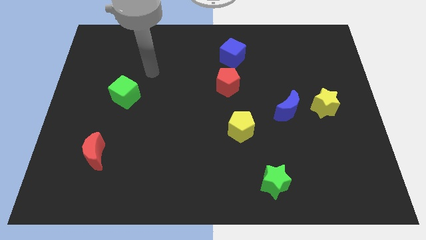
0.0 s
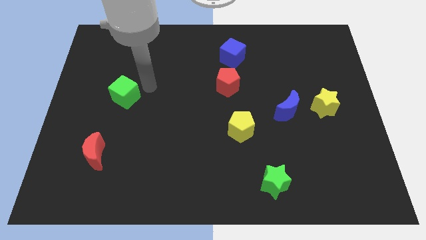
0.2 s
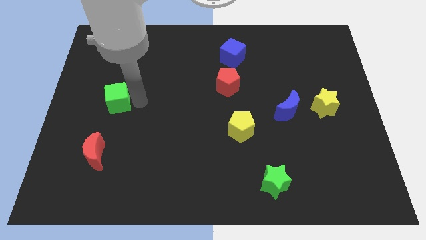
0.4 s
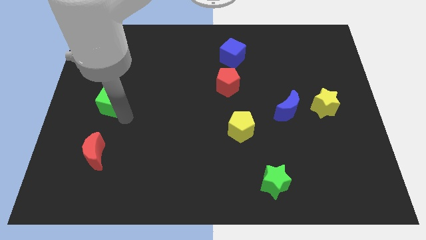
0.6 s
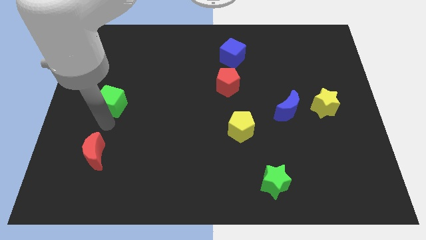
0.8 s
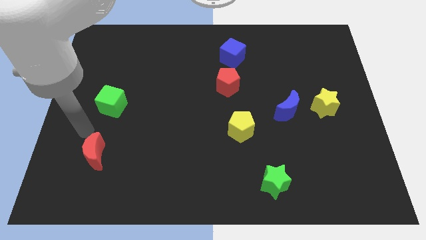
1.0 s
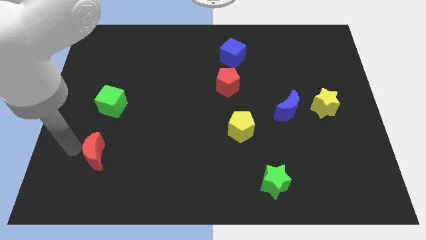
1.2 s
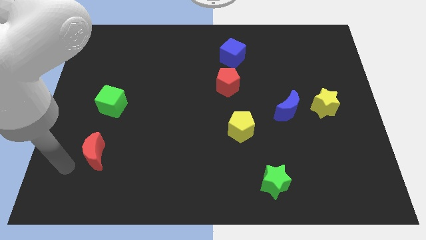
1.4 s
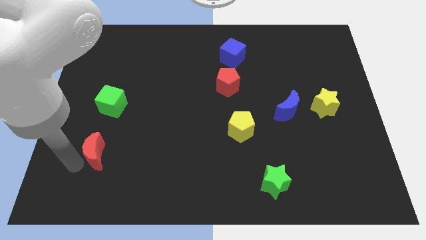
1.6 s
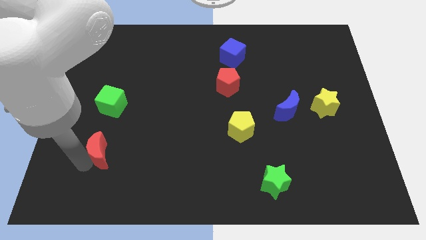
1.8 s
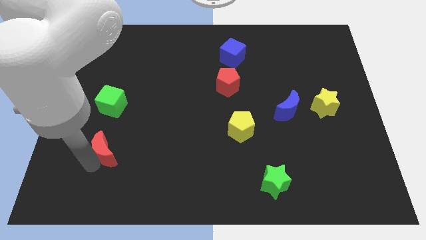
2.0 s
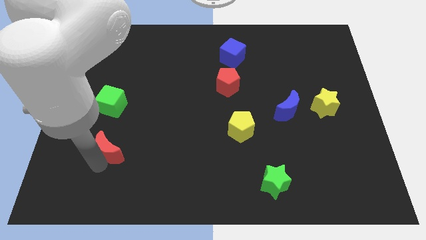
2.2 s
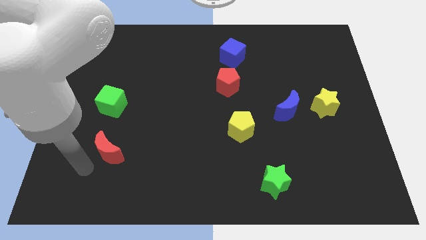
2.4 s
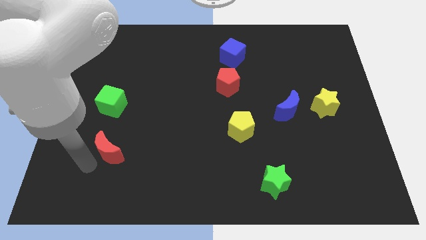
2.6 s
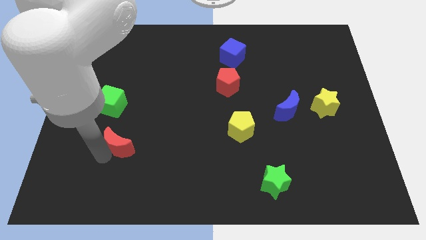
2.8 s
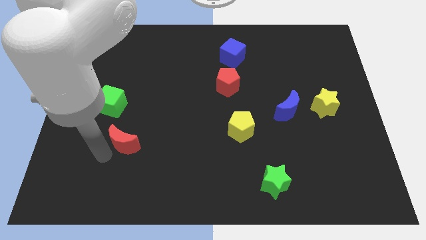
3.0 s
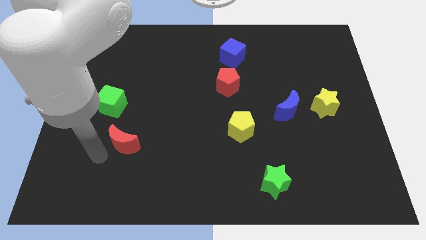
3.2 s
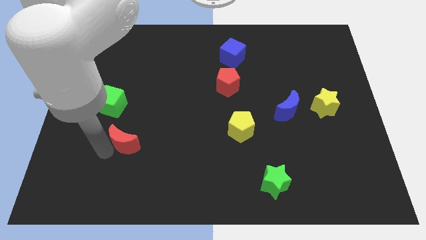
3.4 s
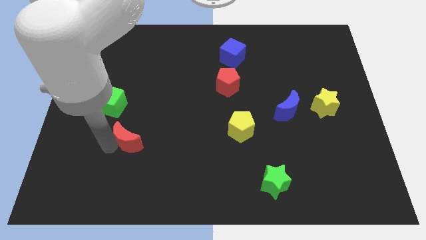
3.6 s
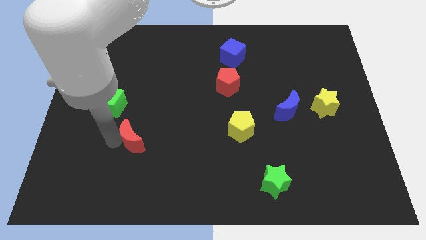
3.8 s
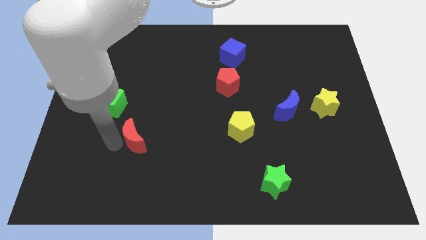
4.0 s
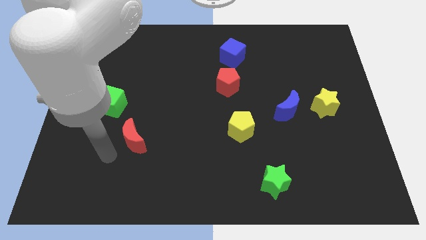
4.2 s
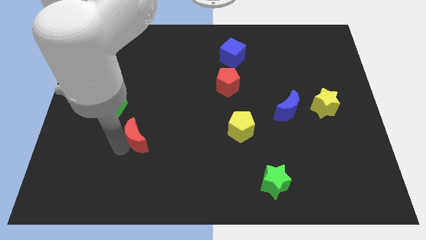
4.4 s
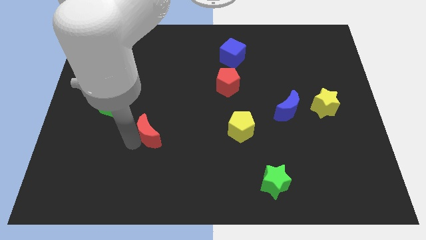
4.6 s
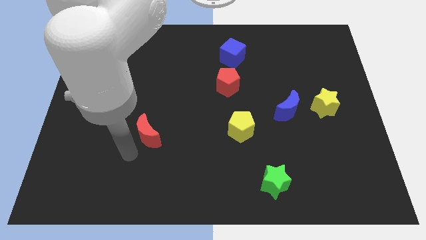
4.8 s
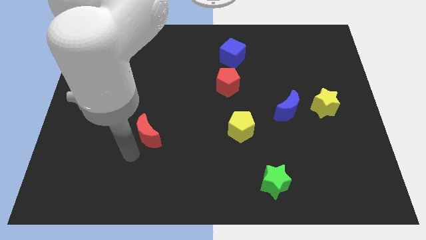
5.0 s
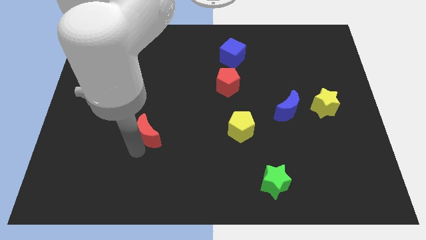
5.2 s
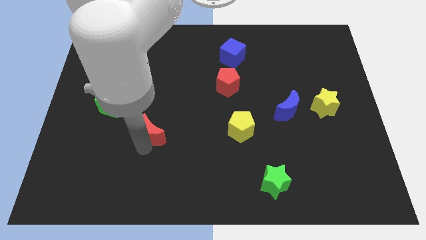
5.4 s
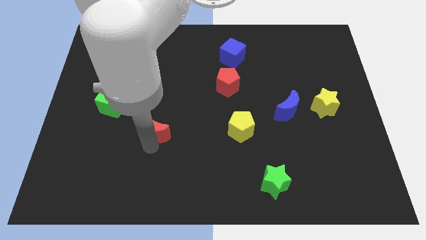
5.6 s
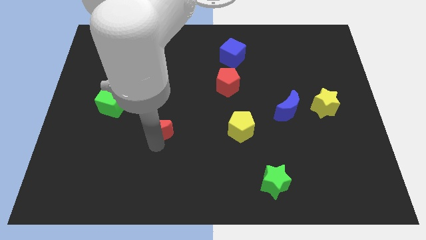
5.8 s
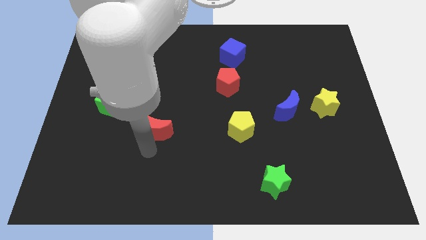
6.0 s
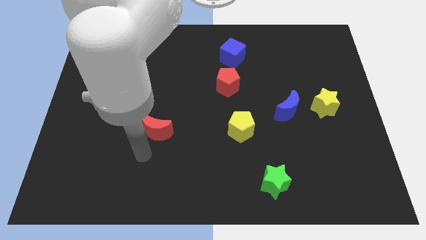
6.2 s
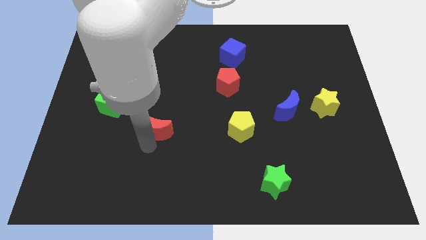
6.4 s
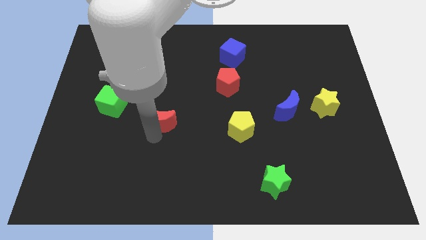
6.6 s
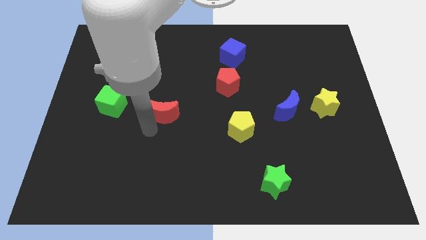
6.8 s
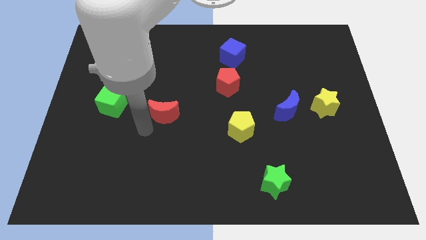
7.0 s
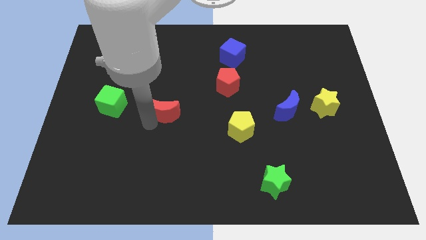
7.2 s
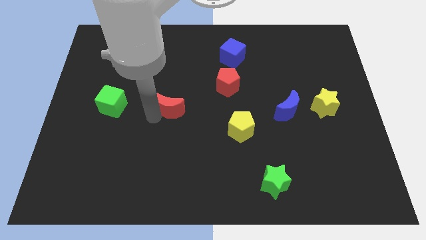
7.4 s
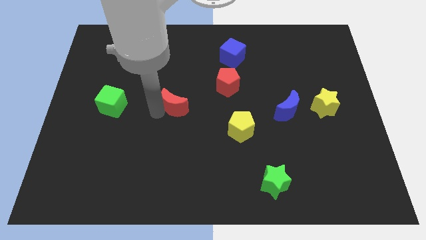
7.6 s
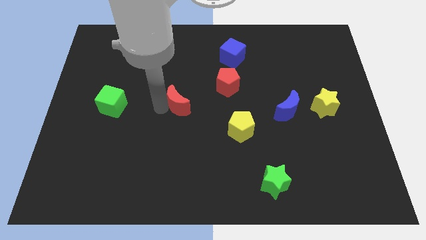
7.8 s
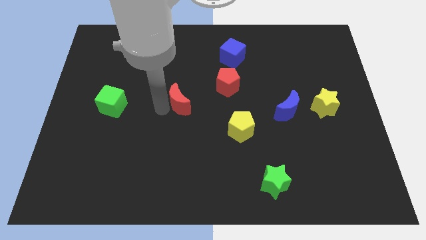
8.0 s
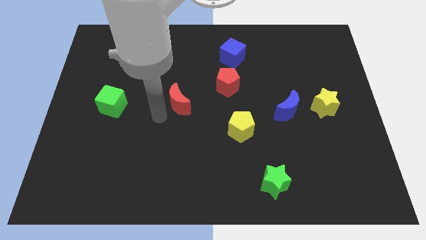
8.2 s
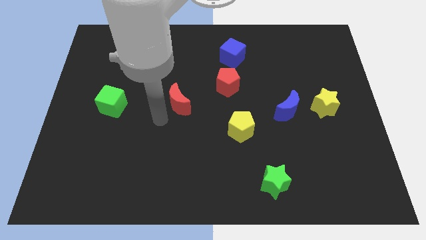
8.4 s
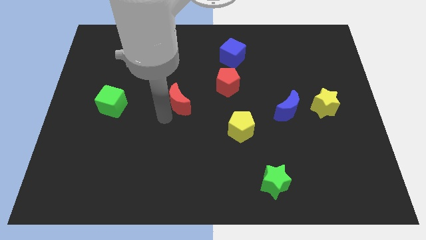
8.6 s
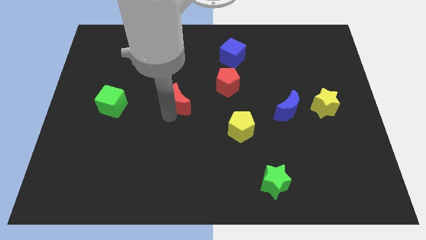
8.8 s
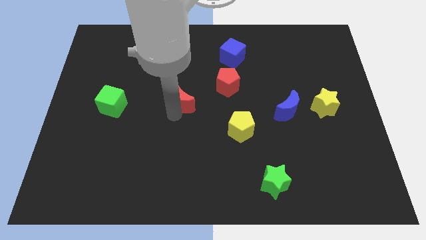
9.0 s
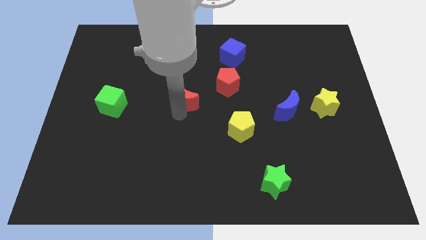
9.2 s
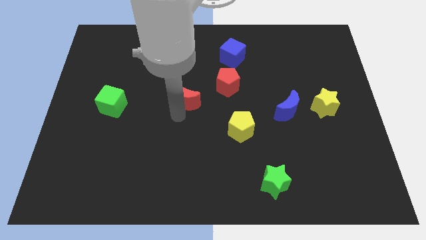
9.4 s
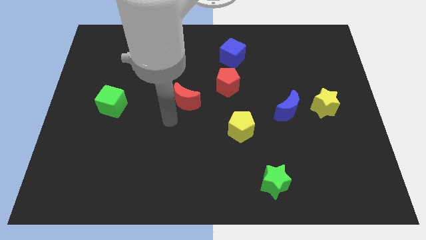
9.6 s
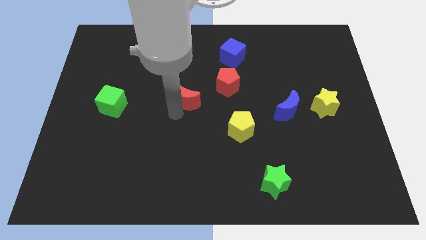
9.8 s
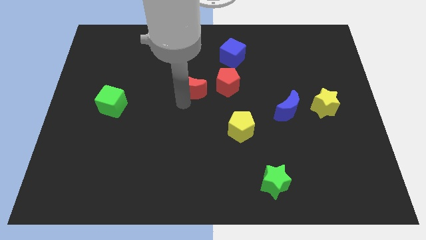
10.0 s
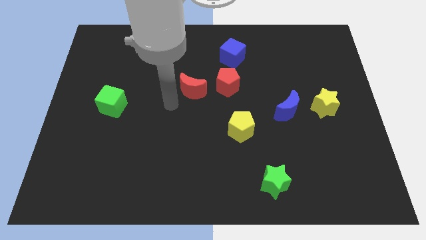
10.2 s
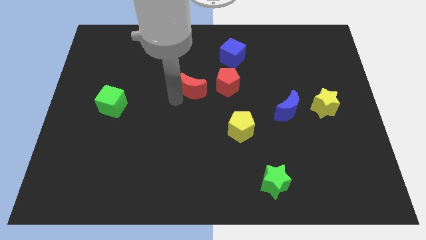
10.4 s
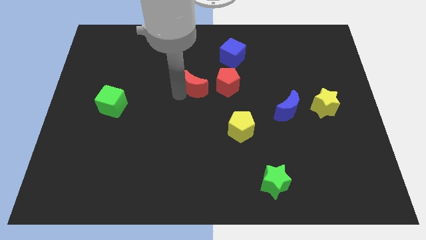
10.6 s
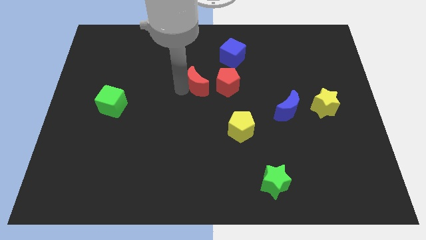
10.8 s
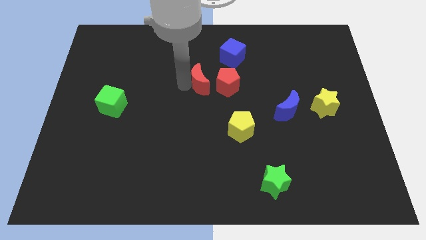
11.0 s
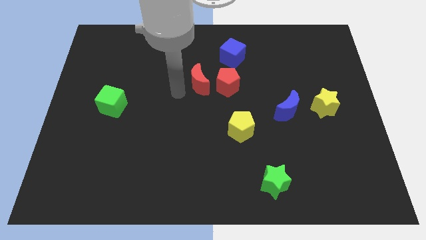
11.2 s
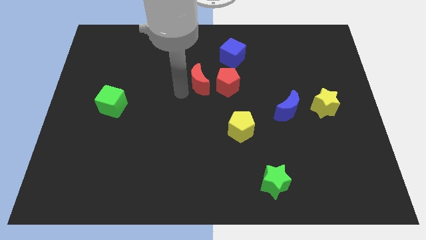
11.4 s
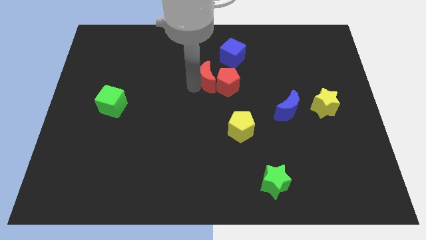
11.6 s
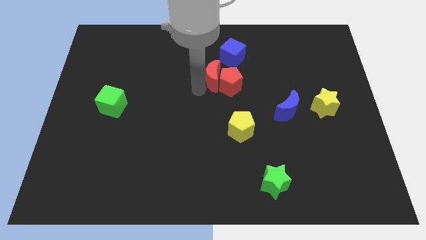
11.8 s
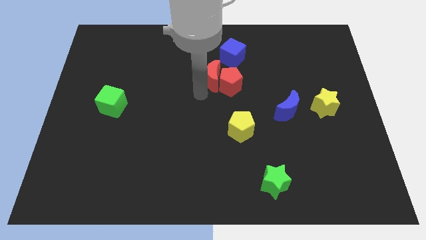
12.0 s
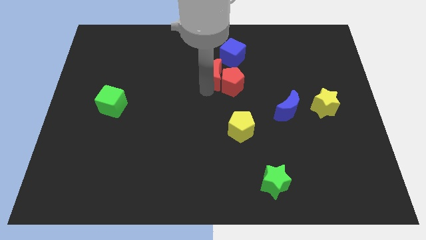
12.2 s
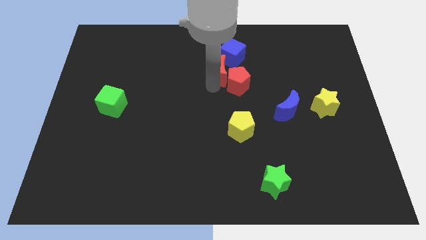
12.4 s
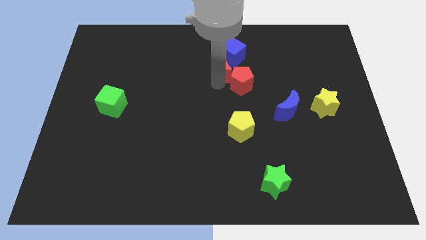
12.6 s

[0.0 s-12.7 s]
push the red moon next to the blue cube

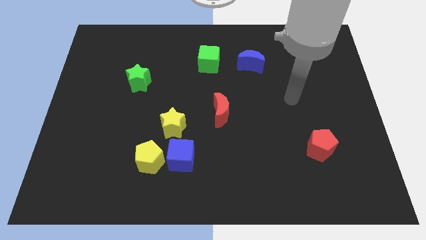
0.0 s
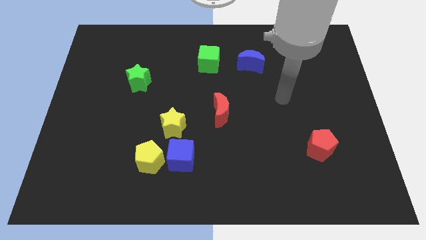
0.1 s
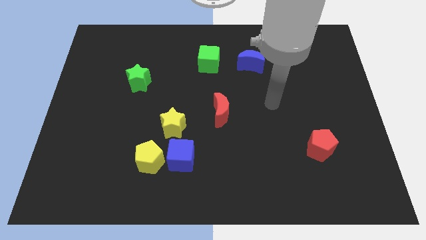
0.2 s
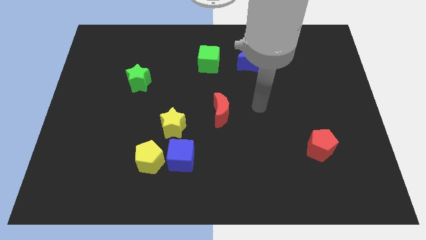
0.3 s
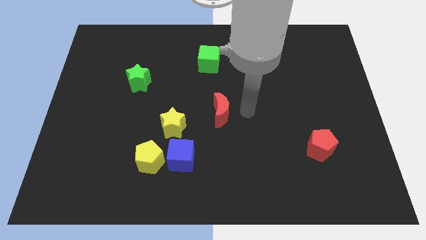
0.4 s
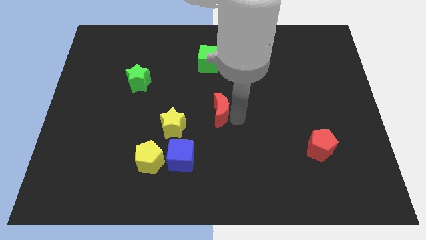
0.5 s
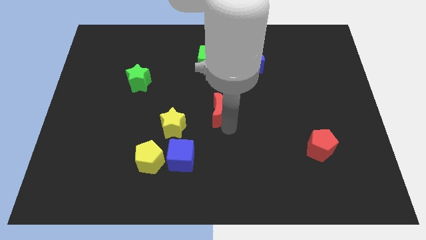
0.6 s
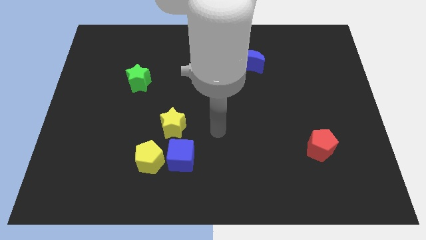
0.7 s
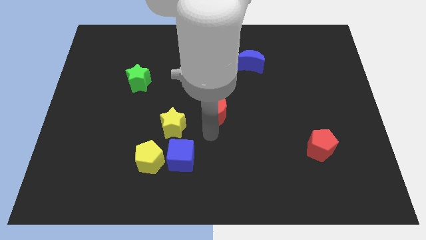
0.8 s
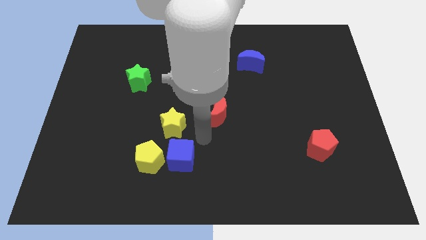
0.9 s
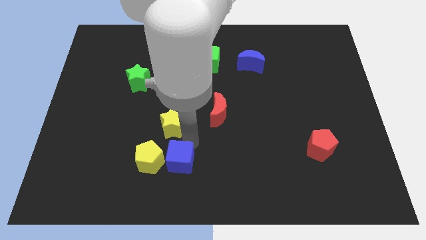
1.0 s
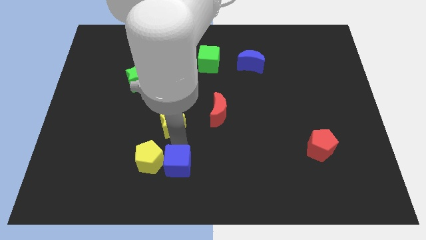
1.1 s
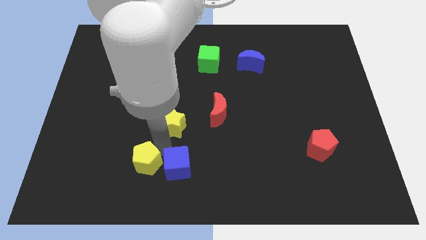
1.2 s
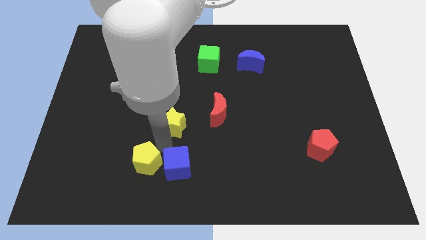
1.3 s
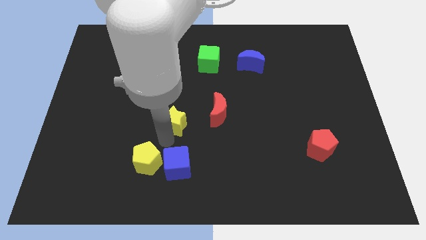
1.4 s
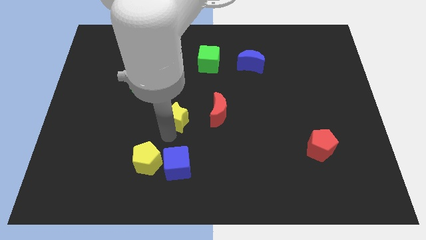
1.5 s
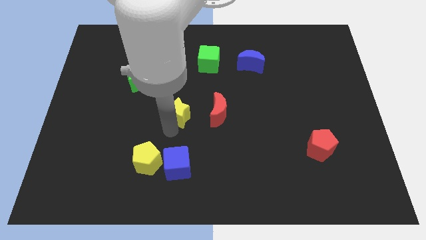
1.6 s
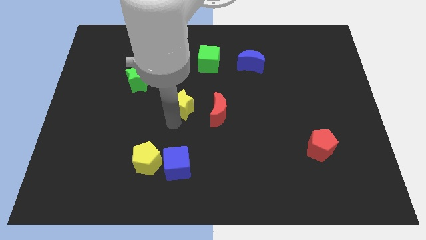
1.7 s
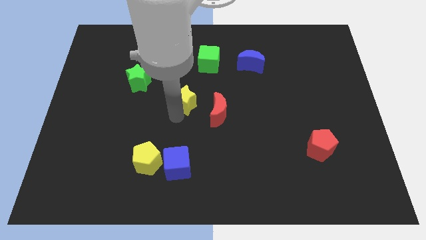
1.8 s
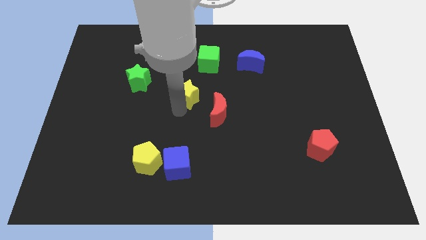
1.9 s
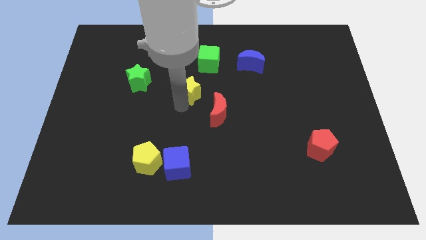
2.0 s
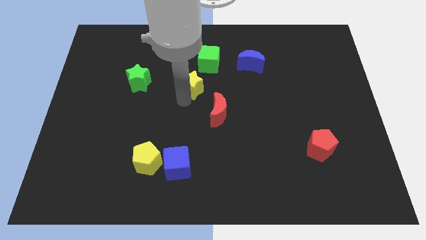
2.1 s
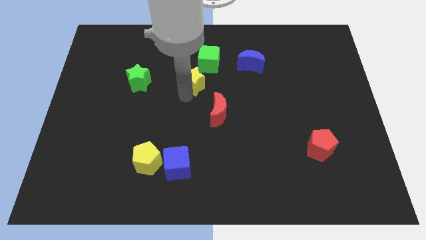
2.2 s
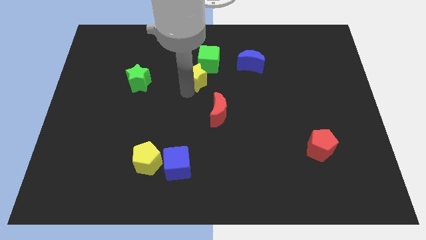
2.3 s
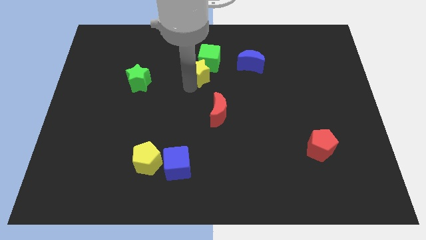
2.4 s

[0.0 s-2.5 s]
move the yellow star close to the green cube
